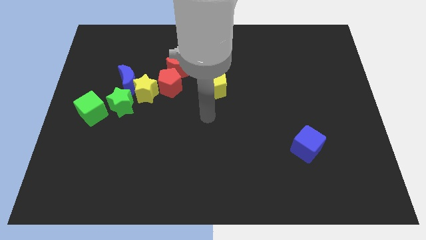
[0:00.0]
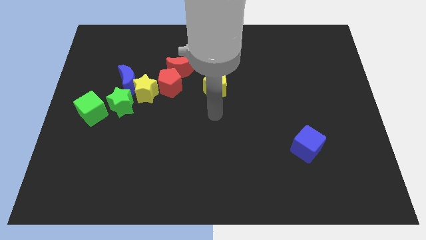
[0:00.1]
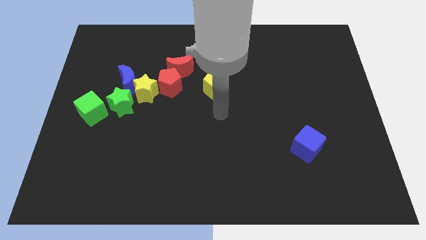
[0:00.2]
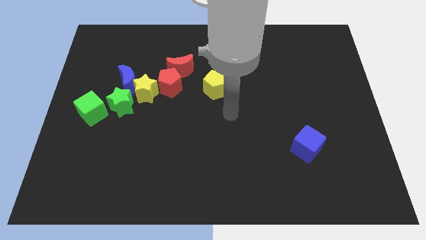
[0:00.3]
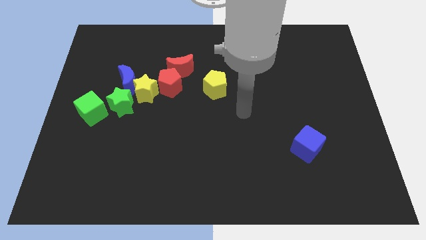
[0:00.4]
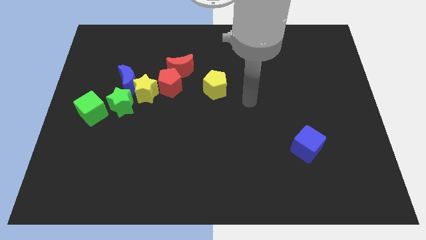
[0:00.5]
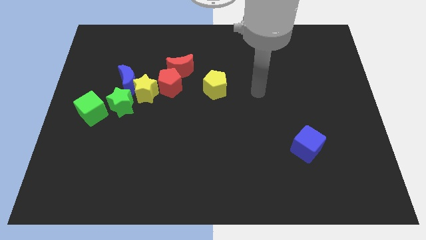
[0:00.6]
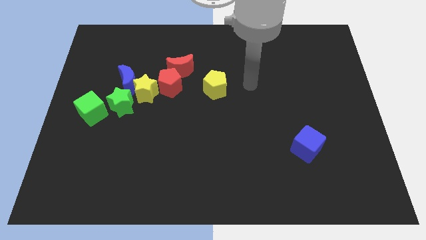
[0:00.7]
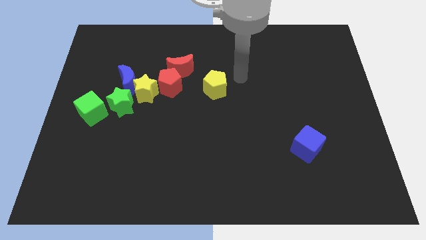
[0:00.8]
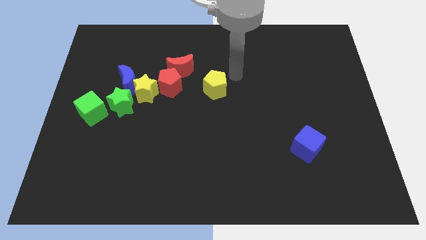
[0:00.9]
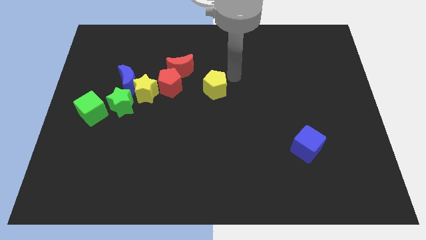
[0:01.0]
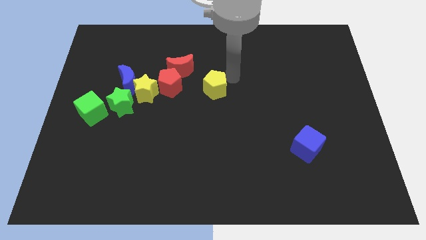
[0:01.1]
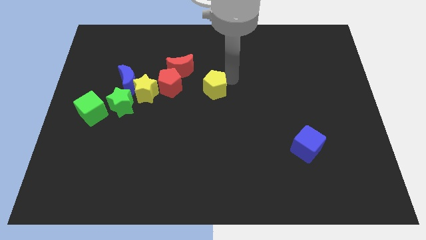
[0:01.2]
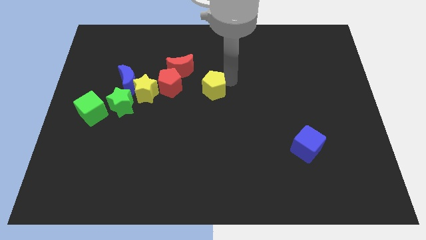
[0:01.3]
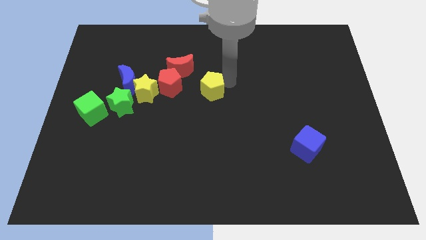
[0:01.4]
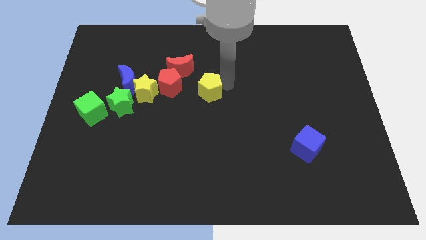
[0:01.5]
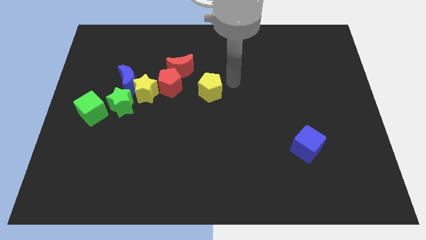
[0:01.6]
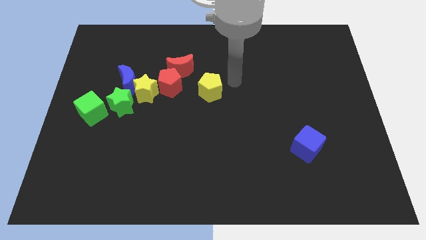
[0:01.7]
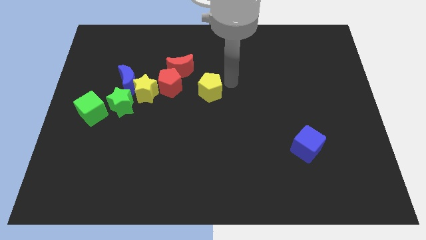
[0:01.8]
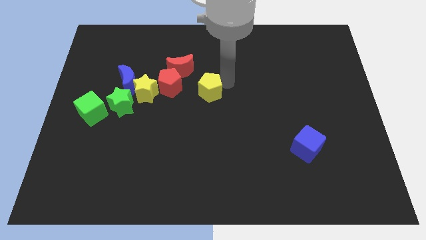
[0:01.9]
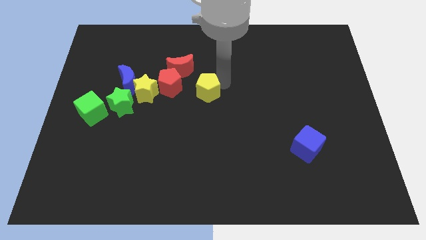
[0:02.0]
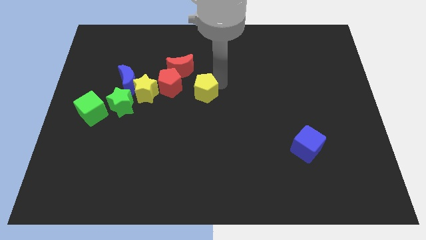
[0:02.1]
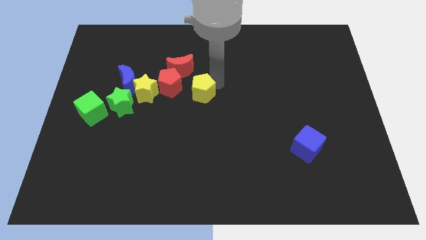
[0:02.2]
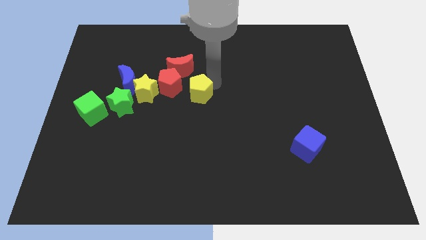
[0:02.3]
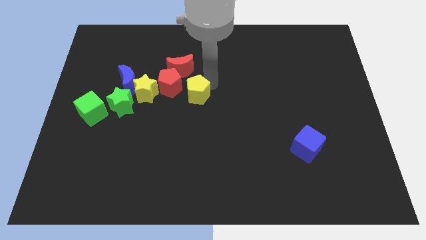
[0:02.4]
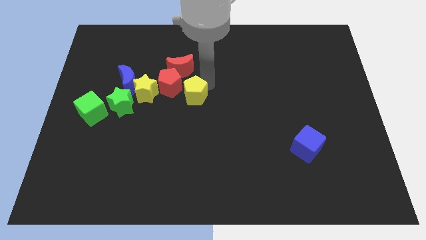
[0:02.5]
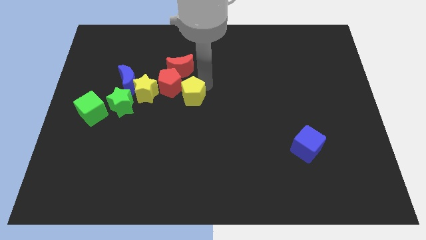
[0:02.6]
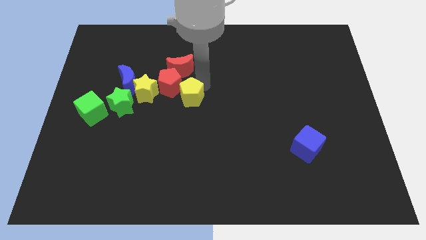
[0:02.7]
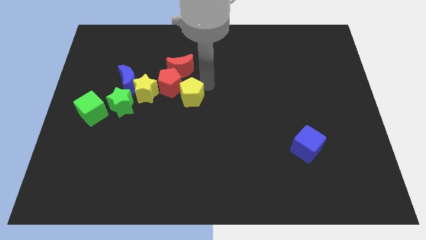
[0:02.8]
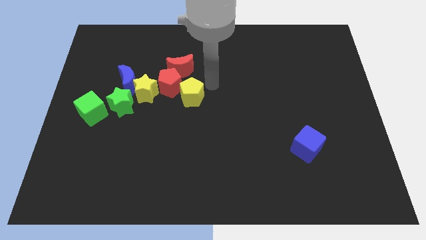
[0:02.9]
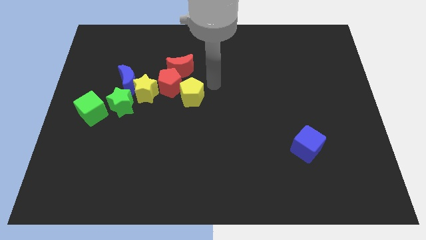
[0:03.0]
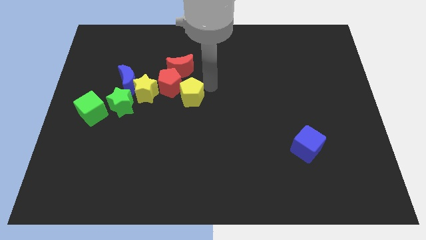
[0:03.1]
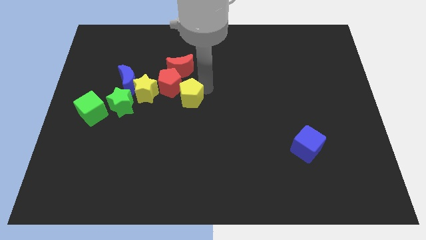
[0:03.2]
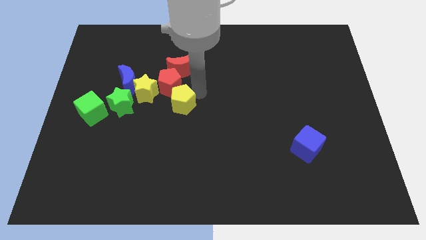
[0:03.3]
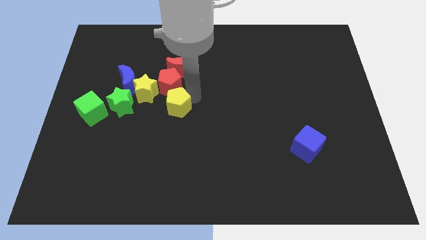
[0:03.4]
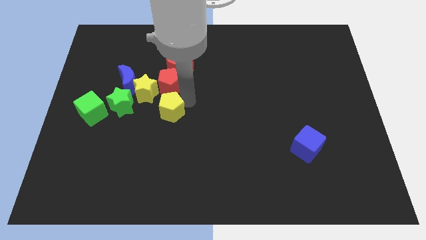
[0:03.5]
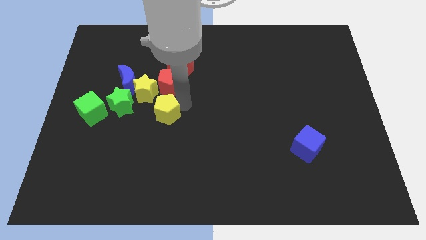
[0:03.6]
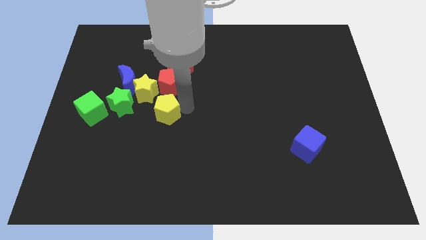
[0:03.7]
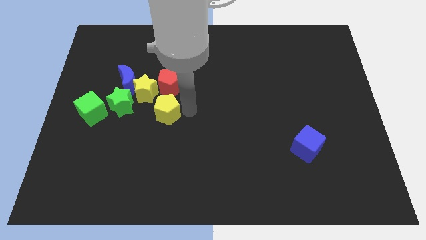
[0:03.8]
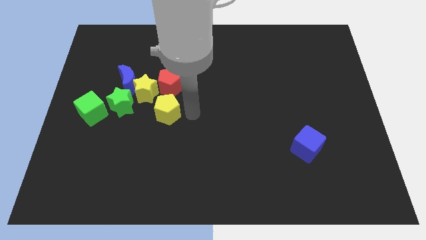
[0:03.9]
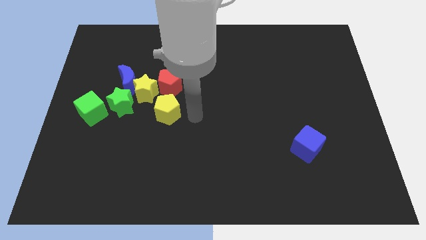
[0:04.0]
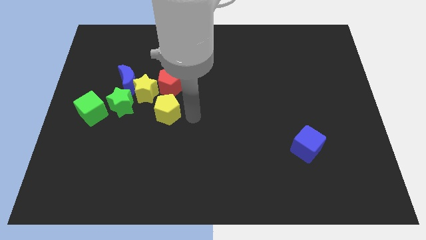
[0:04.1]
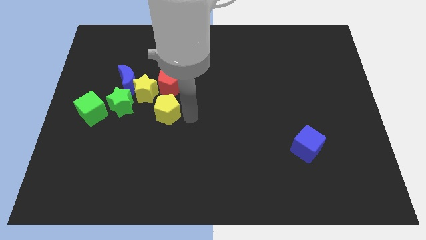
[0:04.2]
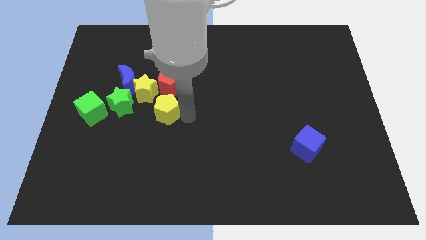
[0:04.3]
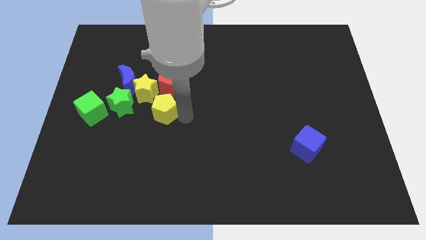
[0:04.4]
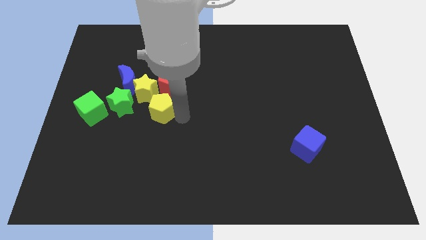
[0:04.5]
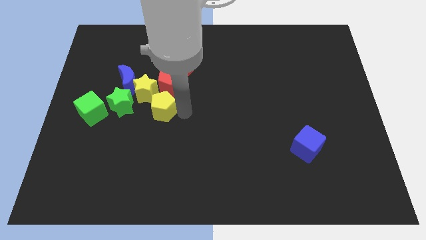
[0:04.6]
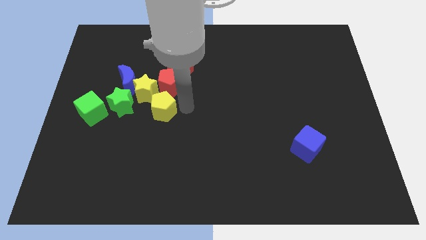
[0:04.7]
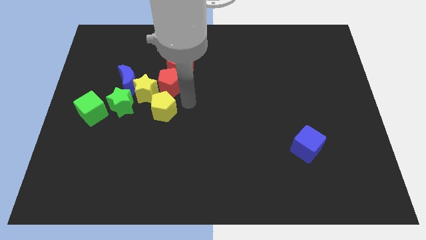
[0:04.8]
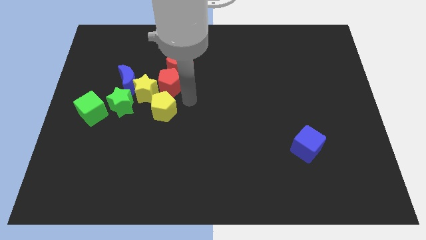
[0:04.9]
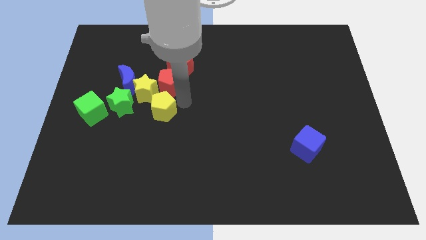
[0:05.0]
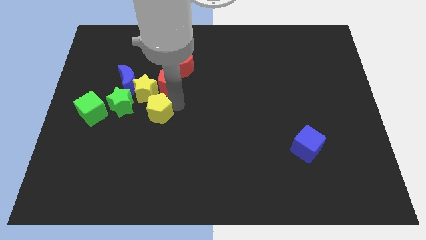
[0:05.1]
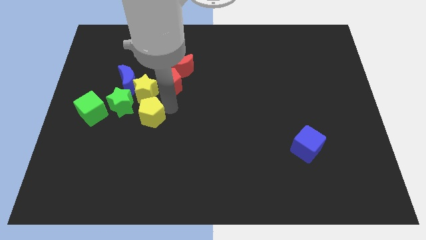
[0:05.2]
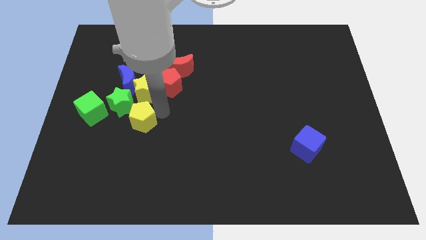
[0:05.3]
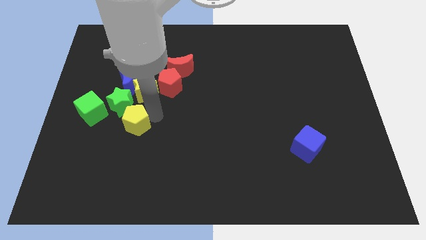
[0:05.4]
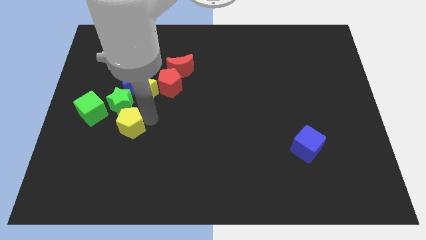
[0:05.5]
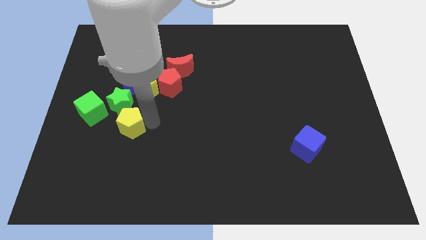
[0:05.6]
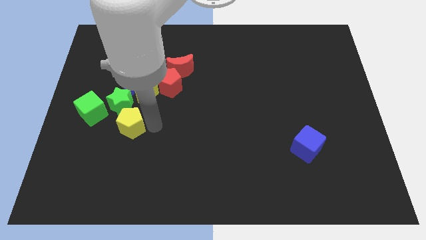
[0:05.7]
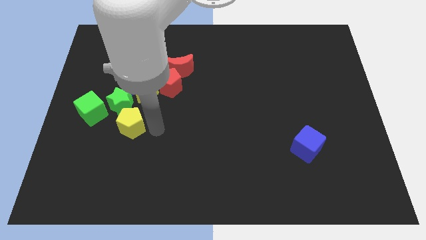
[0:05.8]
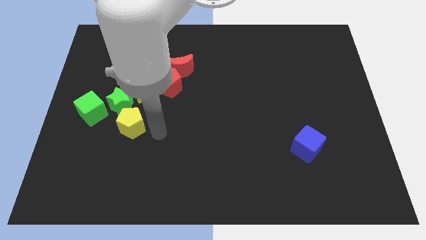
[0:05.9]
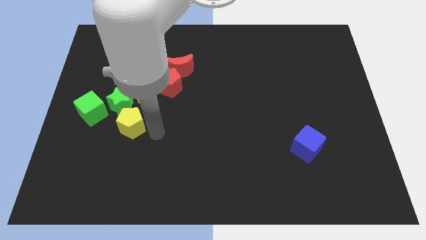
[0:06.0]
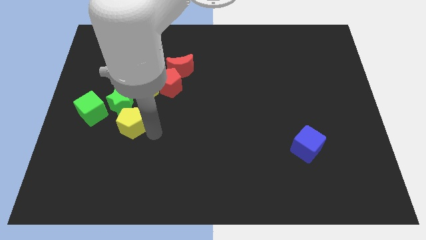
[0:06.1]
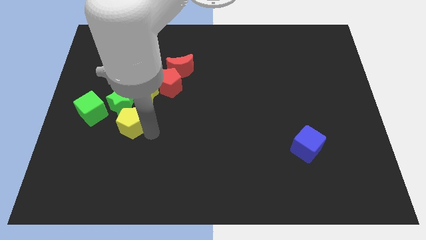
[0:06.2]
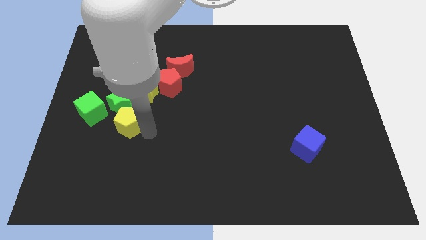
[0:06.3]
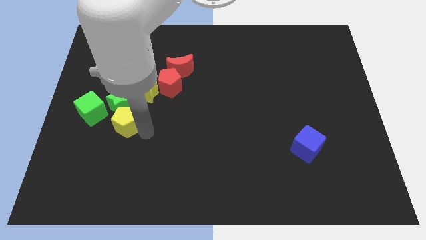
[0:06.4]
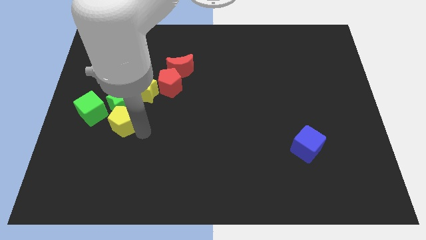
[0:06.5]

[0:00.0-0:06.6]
push the yellow pentagon diagonally down and to the left of the green star
